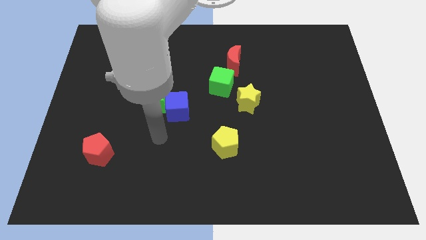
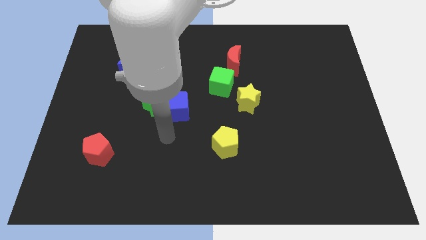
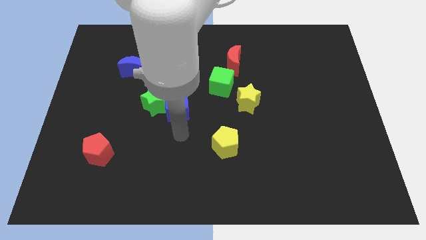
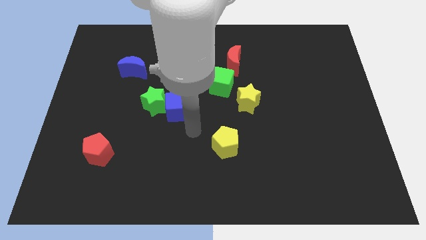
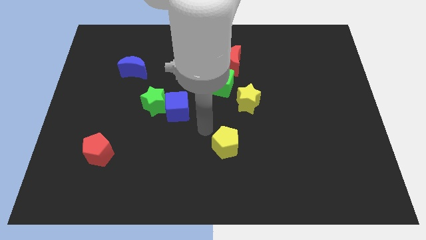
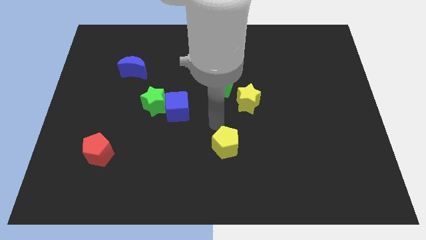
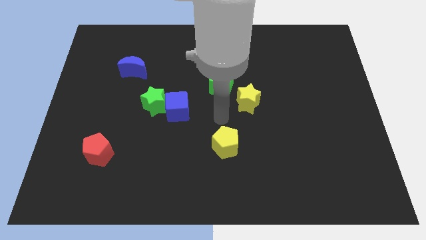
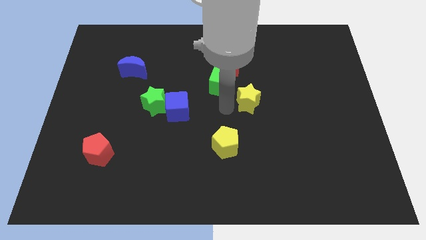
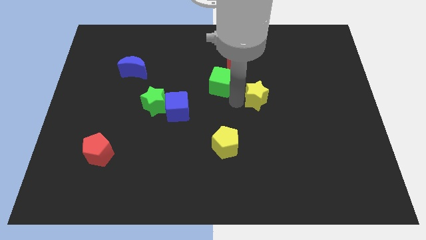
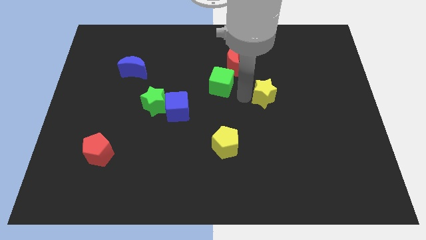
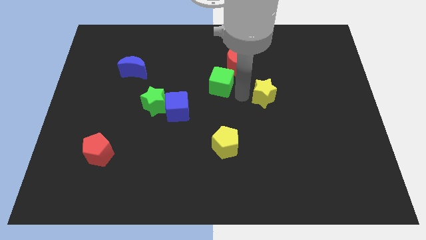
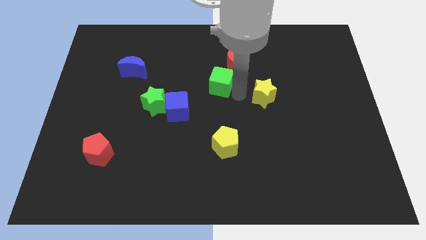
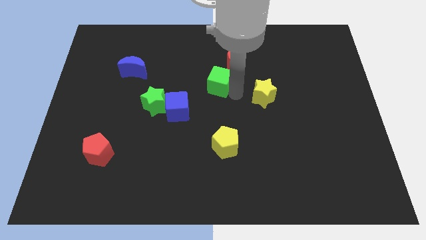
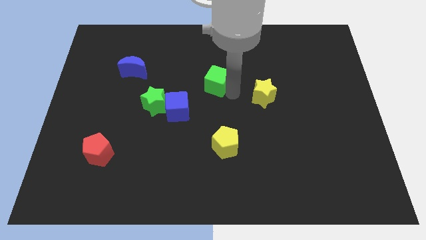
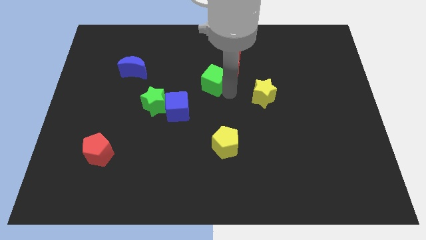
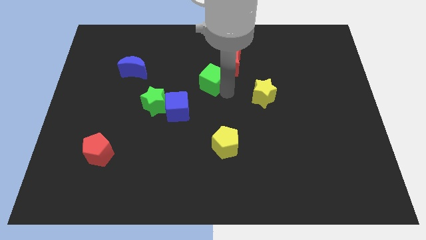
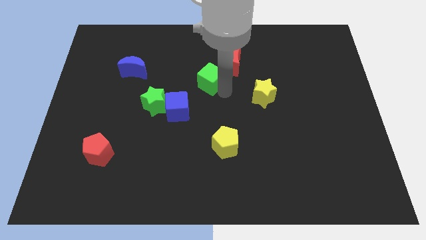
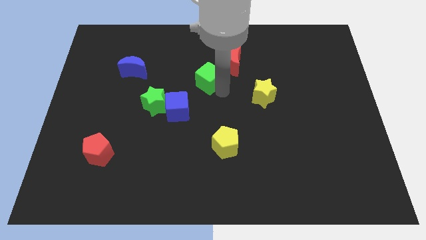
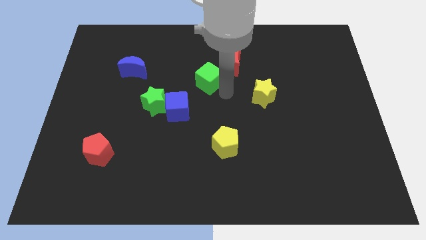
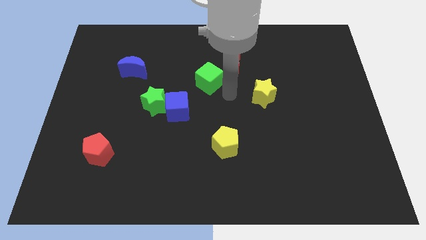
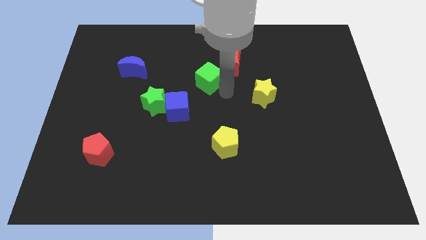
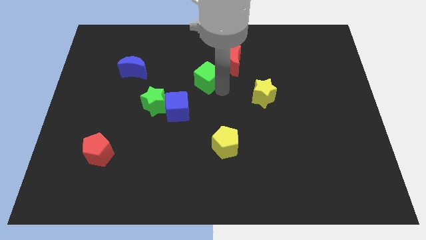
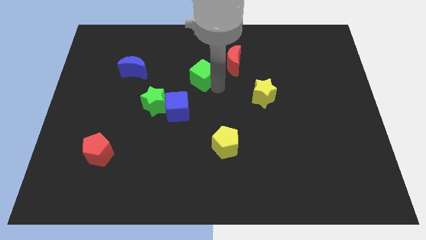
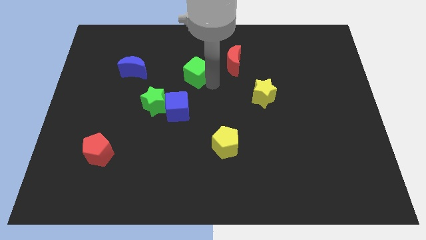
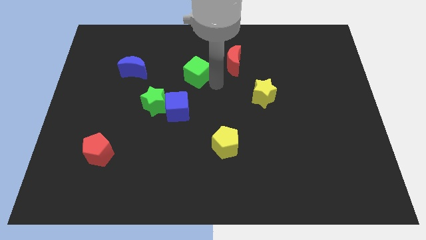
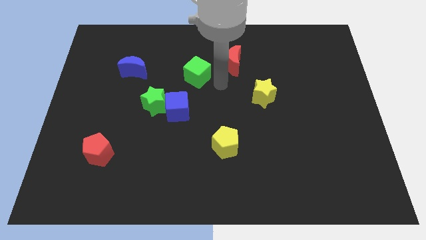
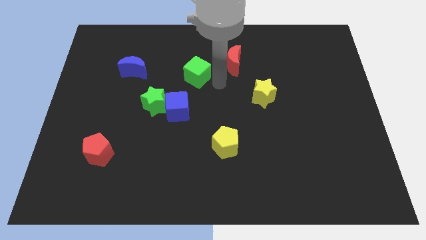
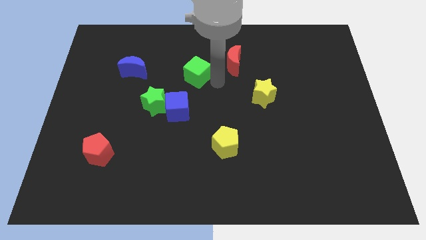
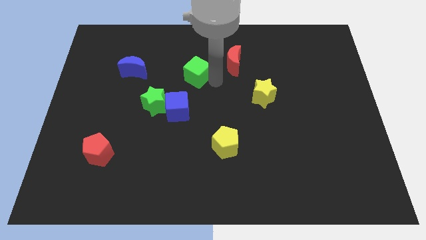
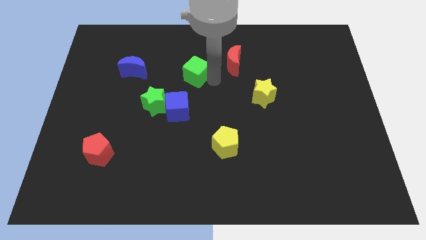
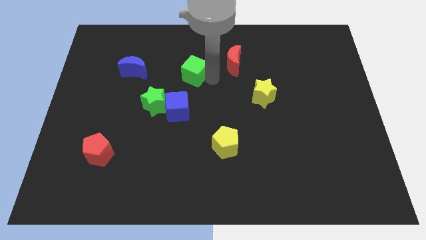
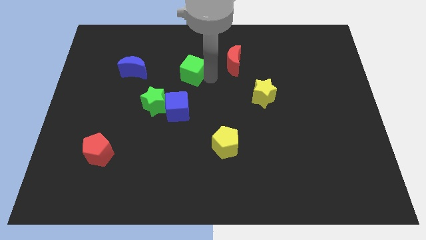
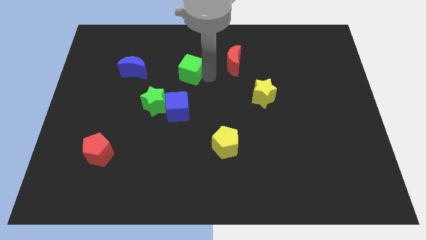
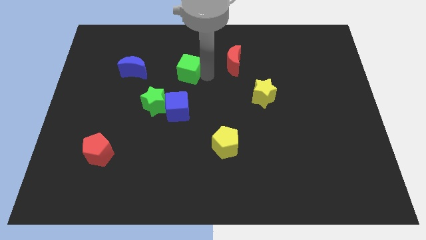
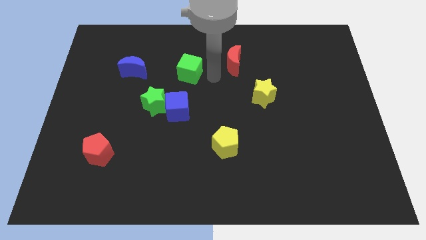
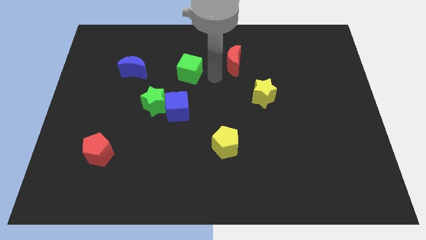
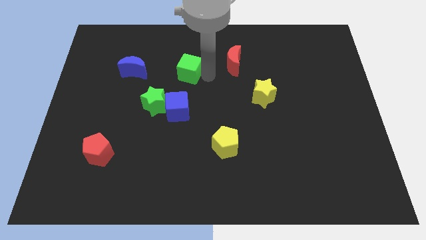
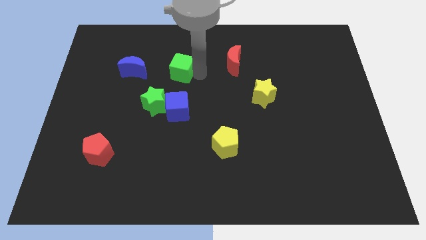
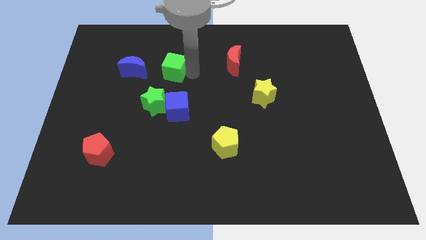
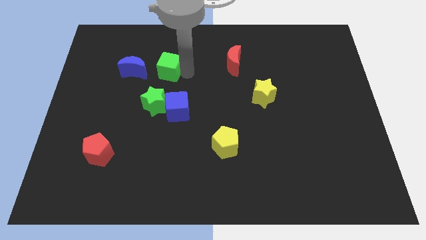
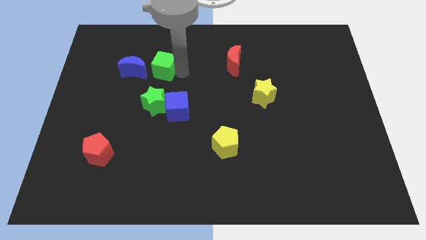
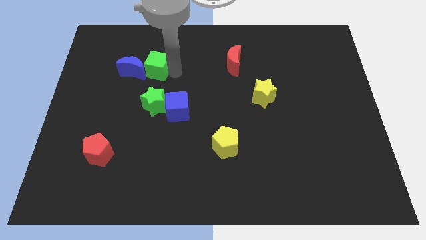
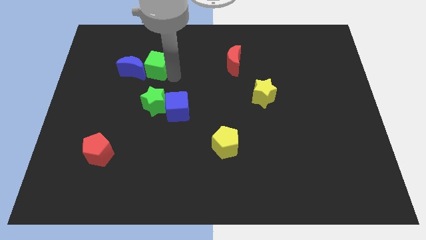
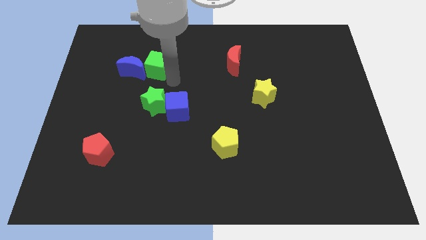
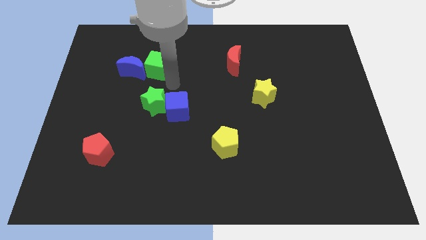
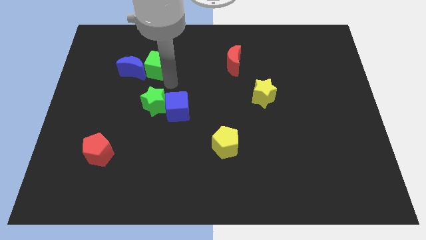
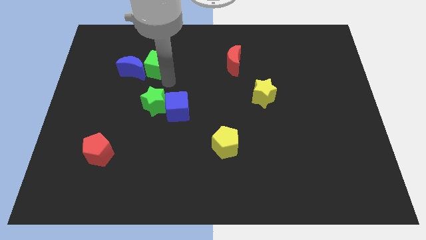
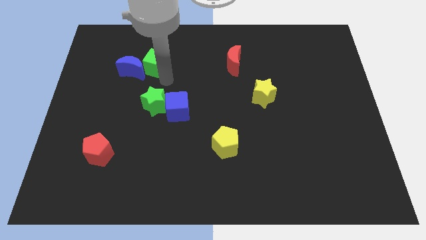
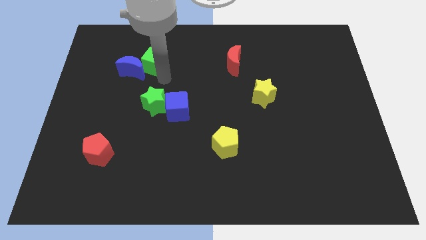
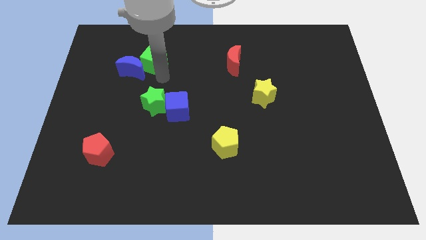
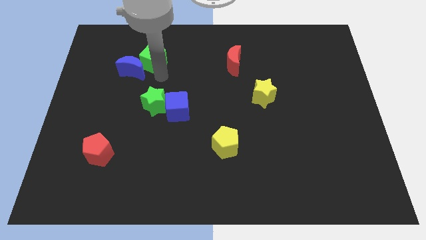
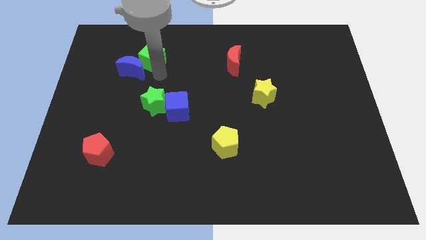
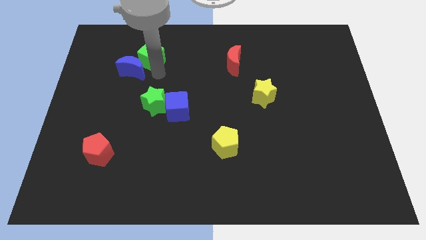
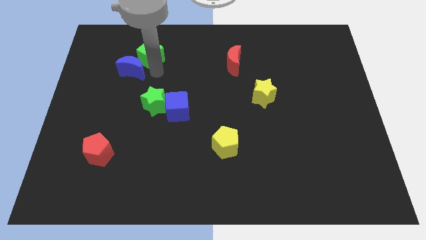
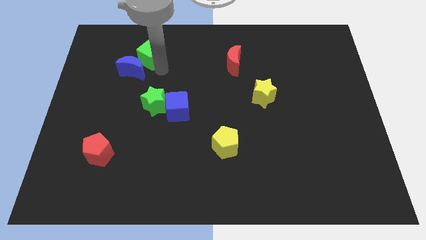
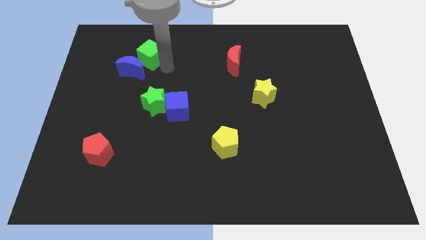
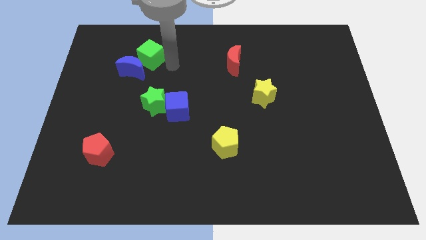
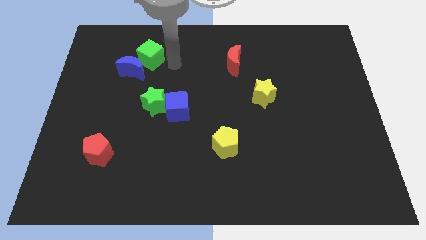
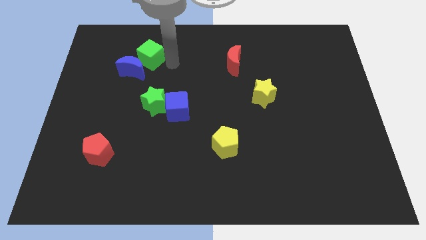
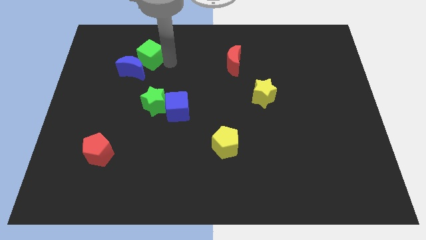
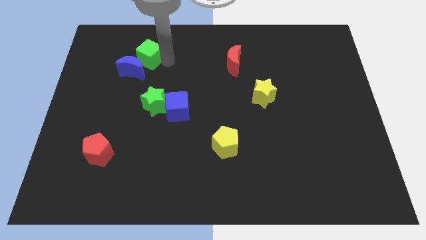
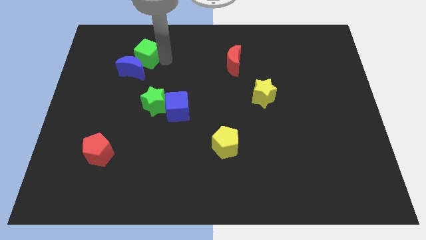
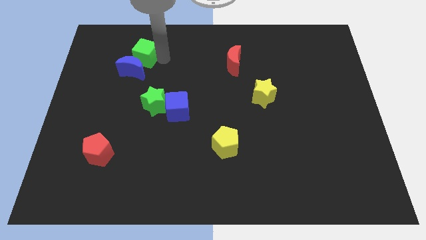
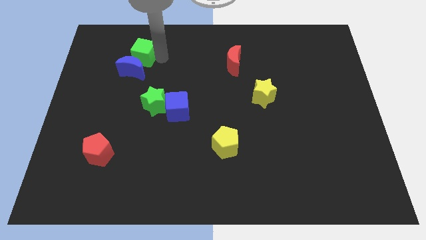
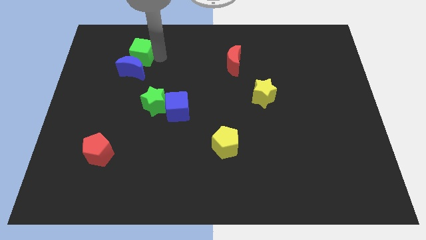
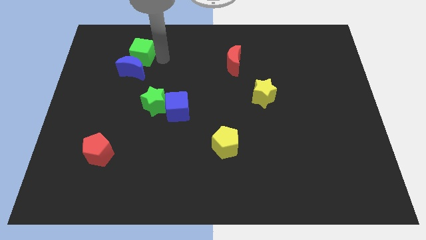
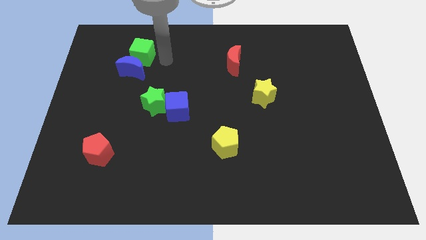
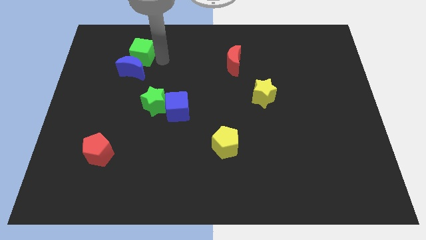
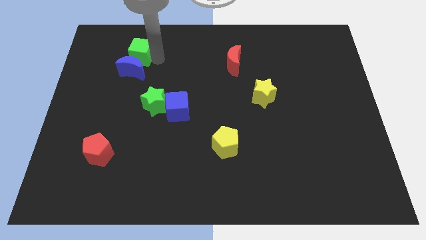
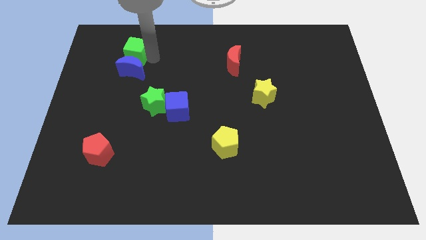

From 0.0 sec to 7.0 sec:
move the green cube to the top left side of the blue moon
